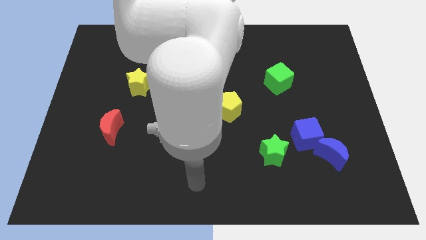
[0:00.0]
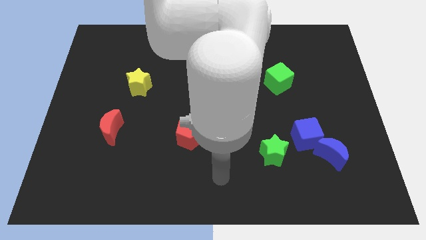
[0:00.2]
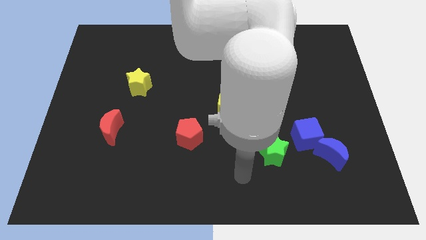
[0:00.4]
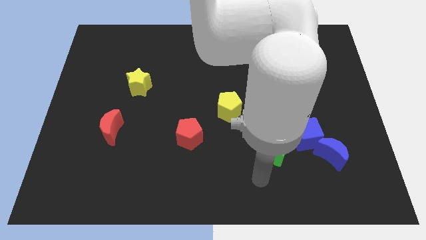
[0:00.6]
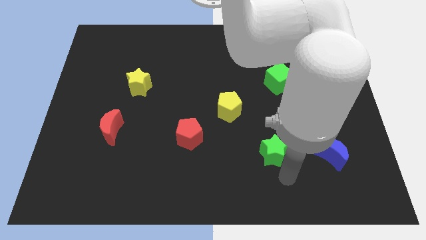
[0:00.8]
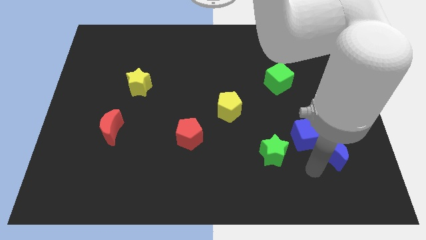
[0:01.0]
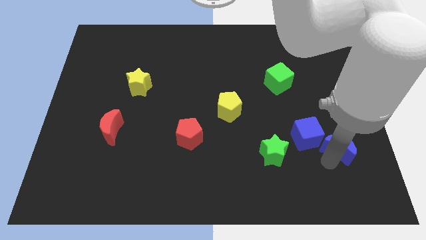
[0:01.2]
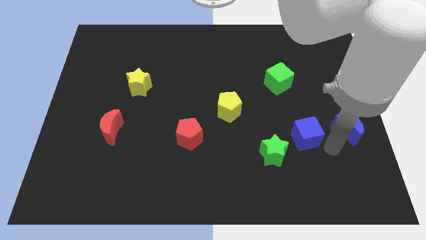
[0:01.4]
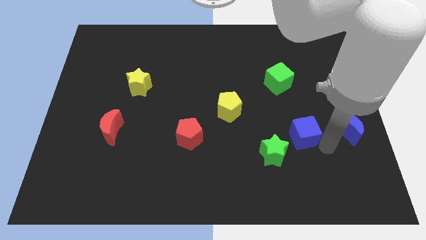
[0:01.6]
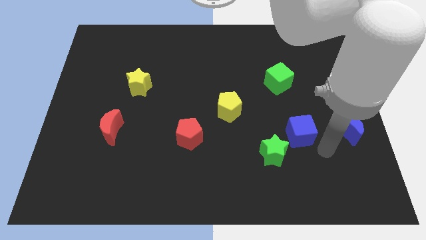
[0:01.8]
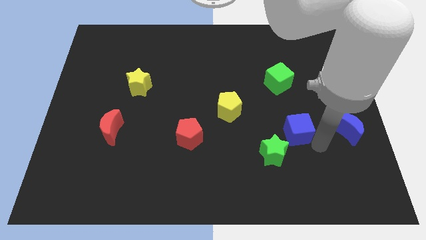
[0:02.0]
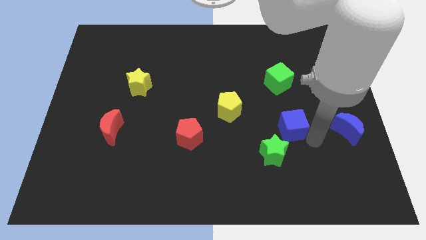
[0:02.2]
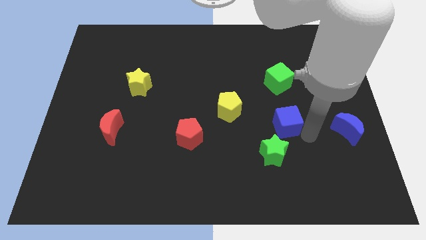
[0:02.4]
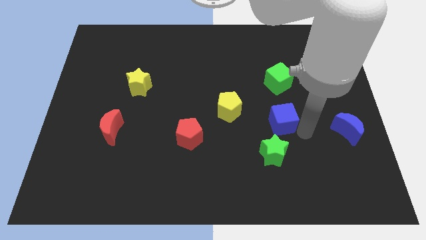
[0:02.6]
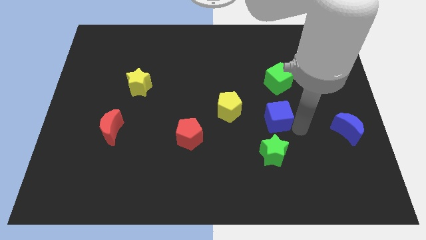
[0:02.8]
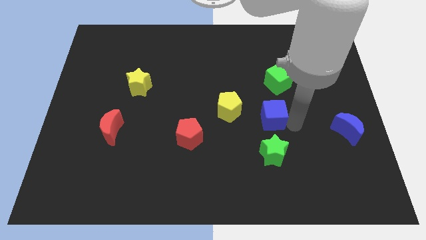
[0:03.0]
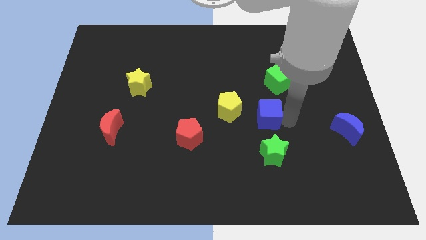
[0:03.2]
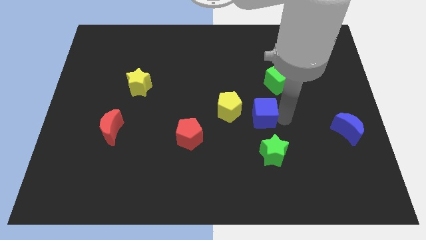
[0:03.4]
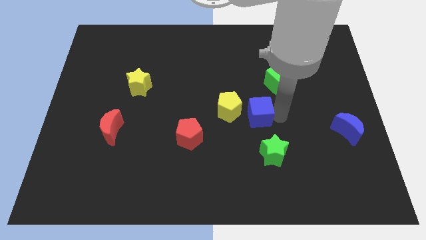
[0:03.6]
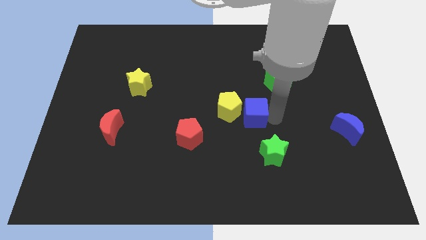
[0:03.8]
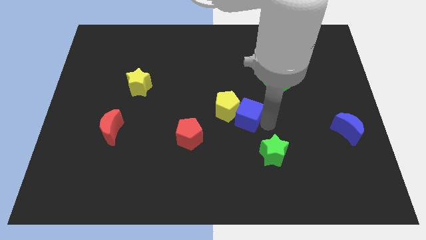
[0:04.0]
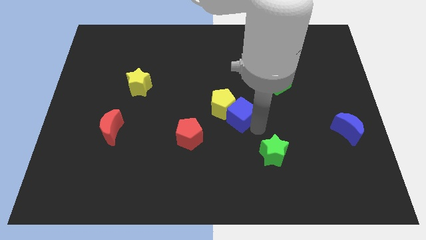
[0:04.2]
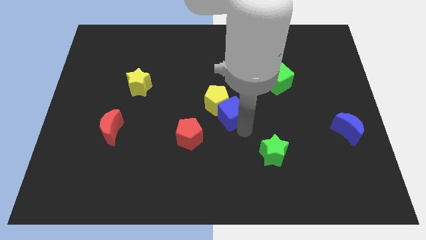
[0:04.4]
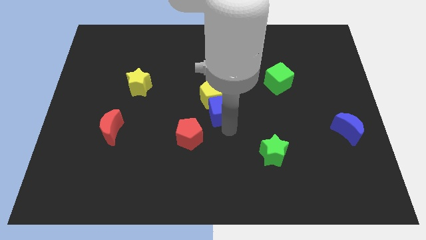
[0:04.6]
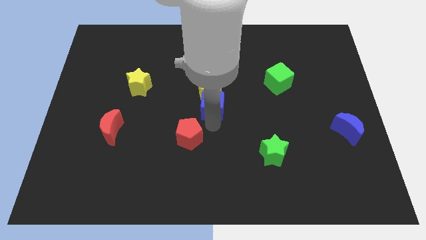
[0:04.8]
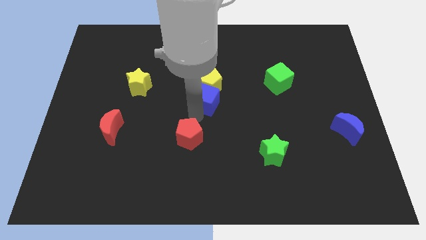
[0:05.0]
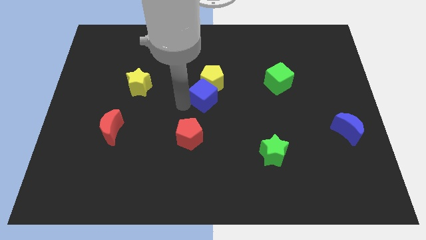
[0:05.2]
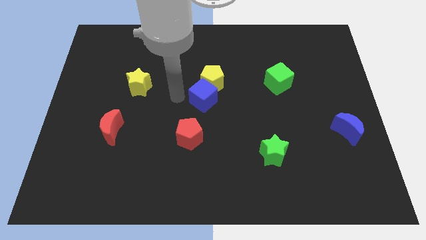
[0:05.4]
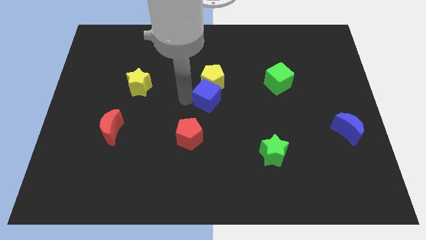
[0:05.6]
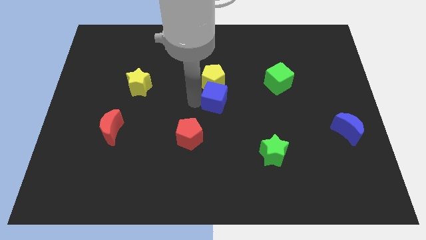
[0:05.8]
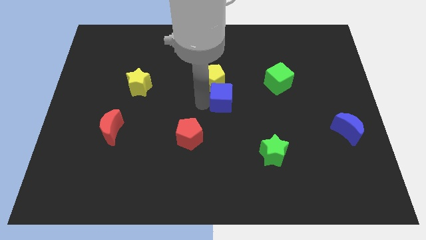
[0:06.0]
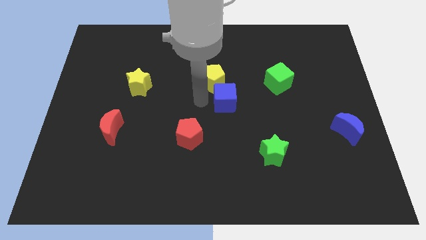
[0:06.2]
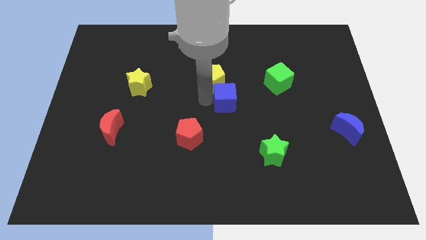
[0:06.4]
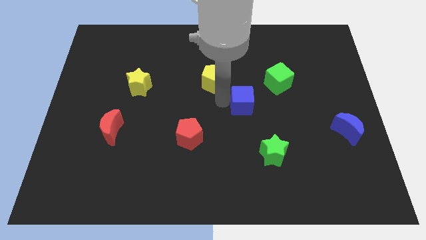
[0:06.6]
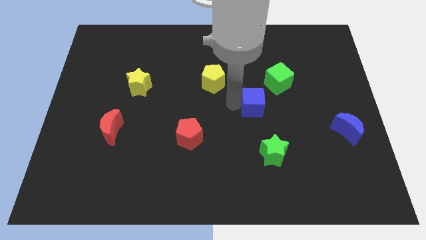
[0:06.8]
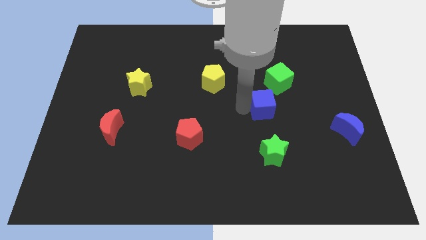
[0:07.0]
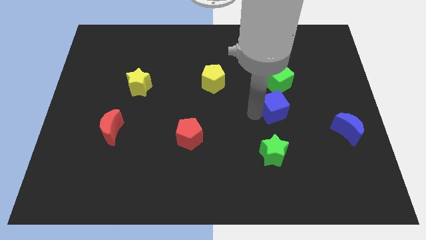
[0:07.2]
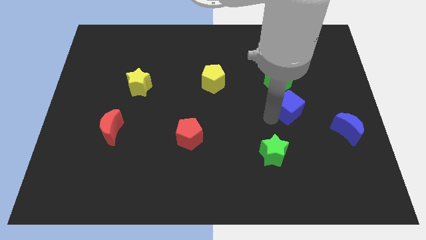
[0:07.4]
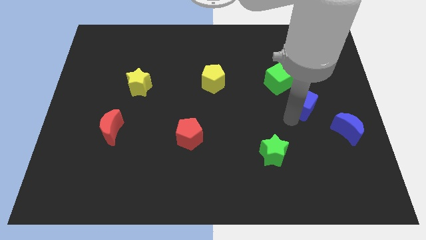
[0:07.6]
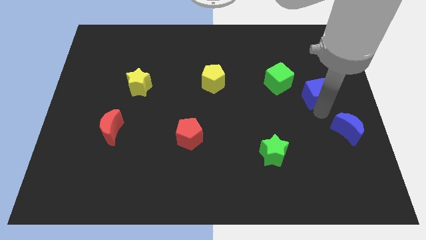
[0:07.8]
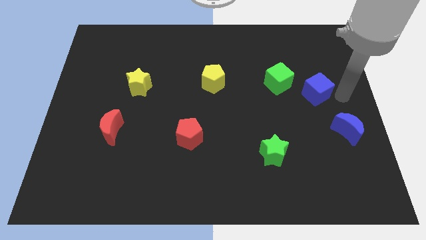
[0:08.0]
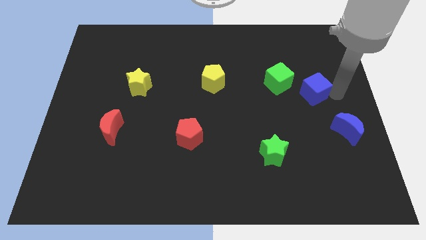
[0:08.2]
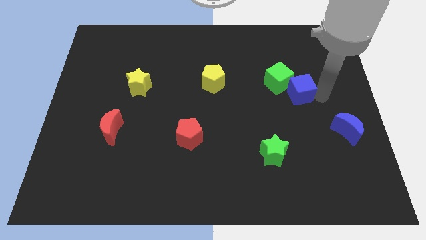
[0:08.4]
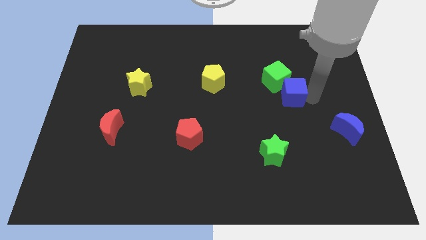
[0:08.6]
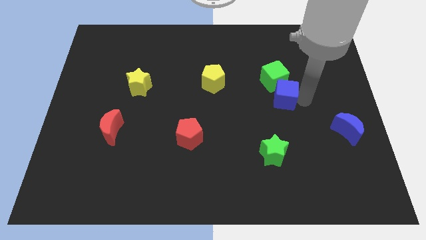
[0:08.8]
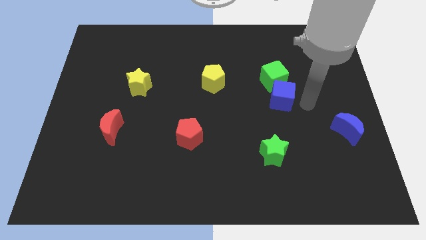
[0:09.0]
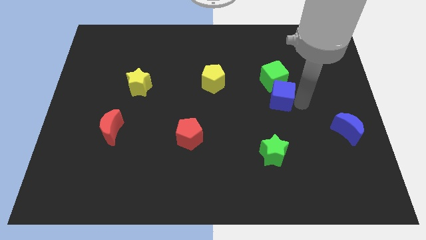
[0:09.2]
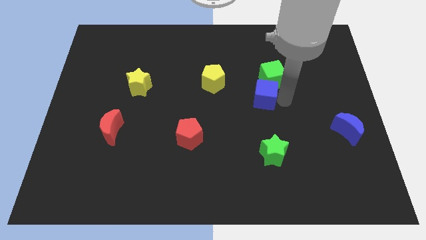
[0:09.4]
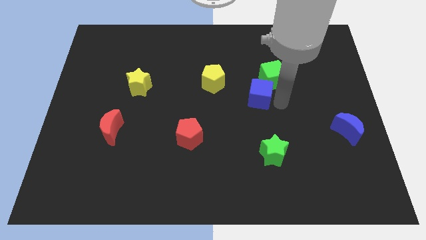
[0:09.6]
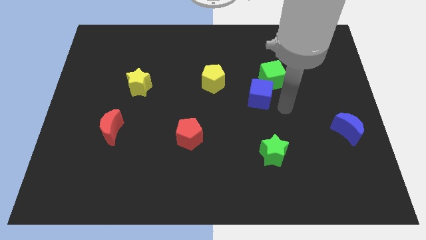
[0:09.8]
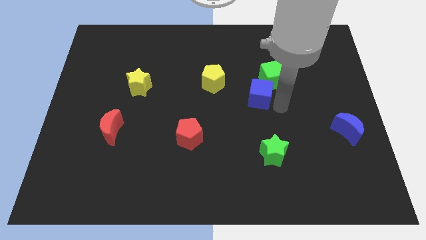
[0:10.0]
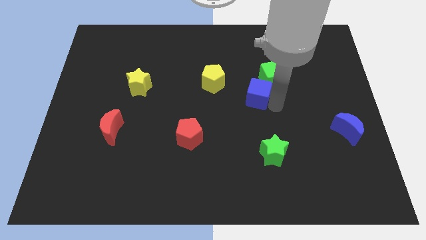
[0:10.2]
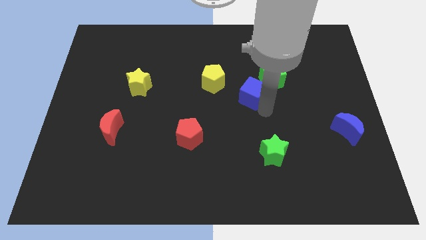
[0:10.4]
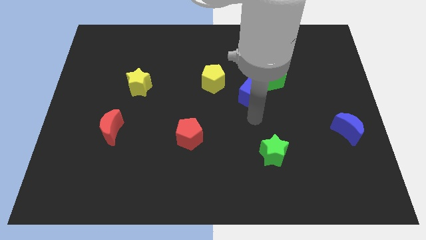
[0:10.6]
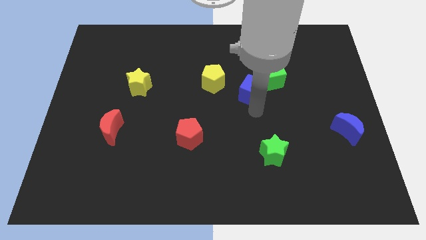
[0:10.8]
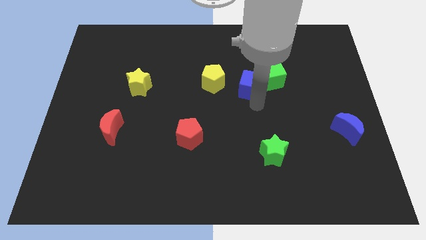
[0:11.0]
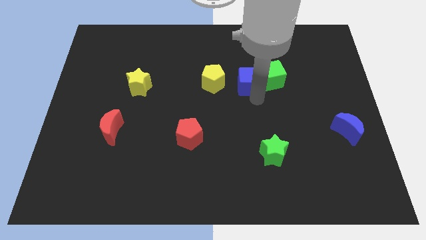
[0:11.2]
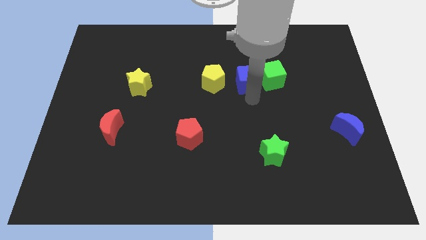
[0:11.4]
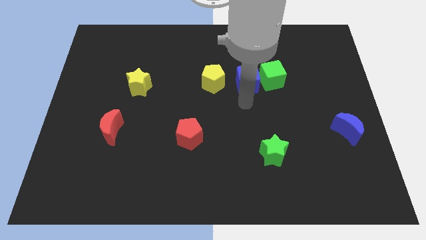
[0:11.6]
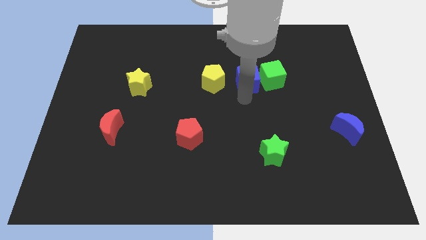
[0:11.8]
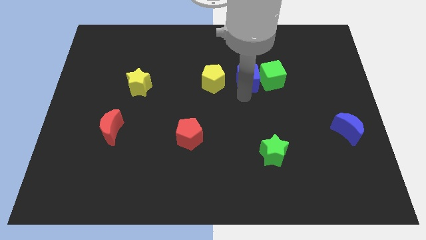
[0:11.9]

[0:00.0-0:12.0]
put the blue cube to the top left of the green cube
